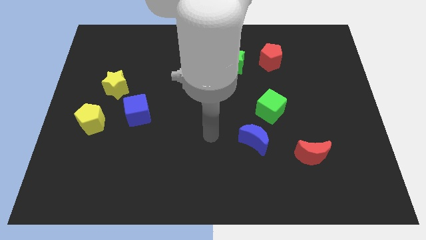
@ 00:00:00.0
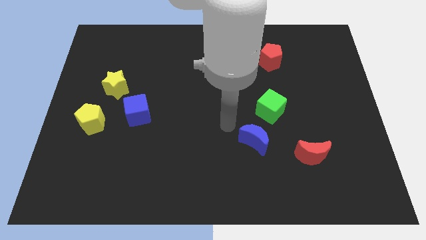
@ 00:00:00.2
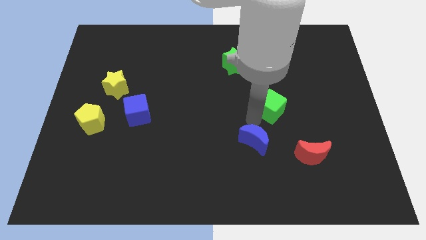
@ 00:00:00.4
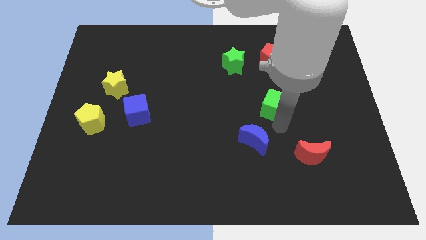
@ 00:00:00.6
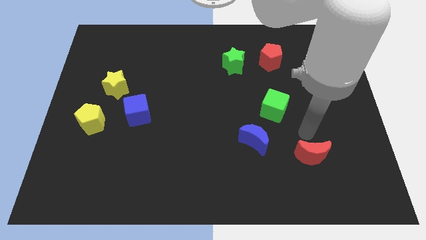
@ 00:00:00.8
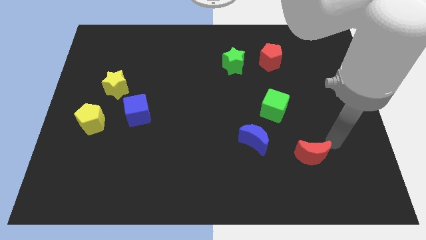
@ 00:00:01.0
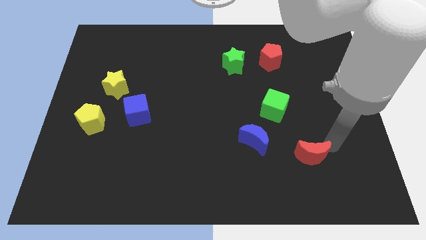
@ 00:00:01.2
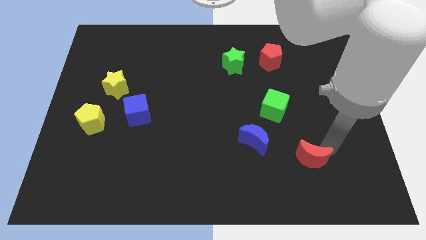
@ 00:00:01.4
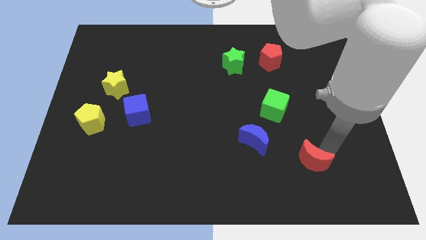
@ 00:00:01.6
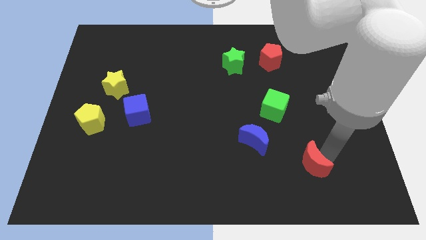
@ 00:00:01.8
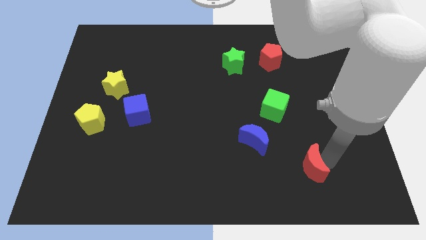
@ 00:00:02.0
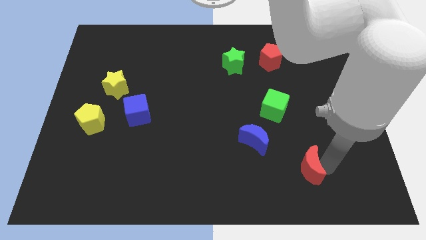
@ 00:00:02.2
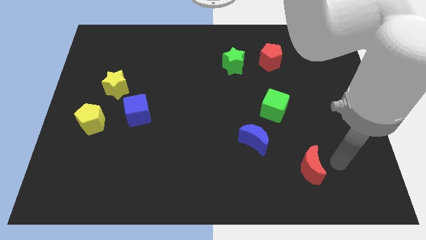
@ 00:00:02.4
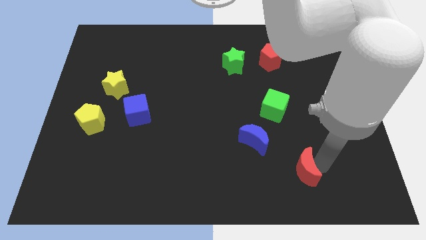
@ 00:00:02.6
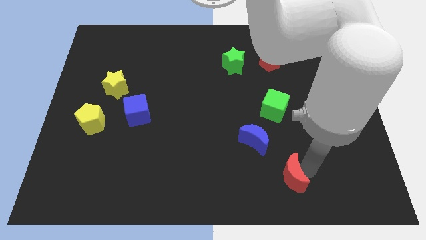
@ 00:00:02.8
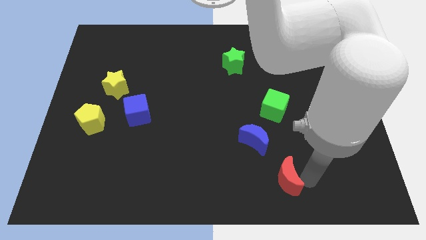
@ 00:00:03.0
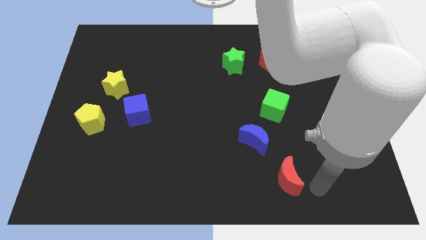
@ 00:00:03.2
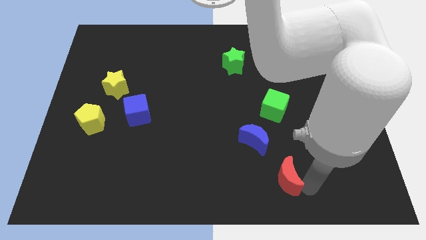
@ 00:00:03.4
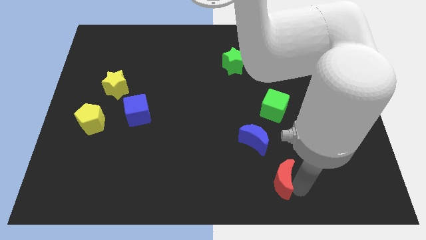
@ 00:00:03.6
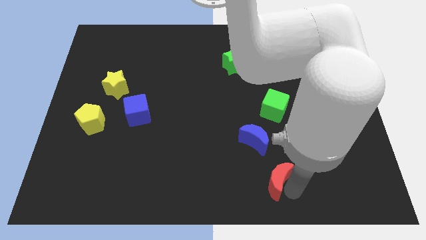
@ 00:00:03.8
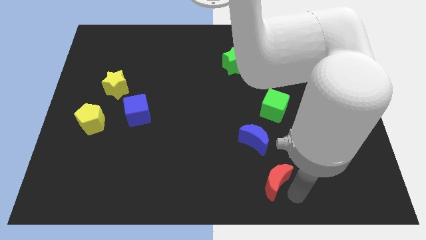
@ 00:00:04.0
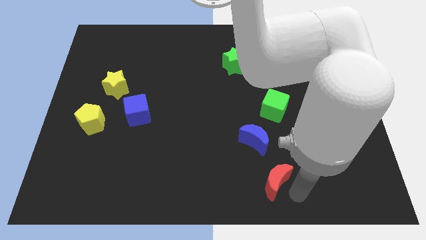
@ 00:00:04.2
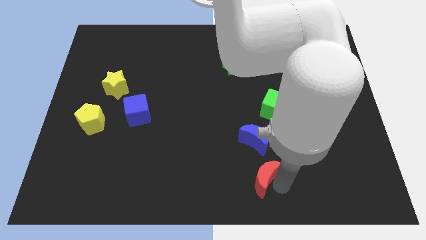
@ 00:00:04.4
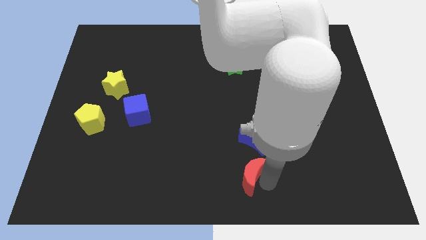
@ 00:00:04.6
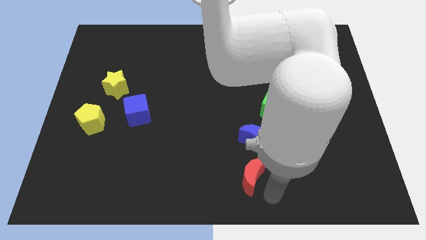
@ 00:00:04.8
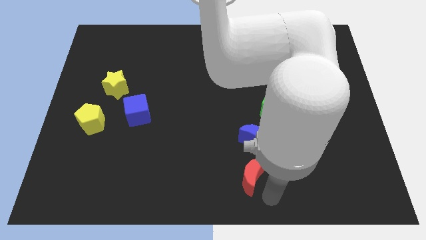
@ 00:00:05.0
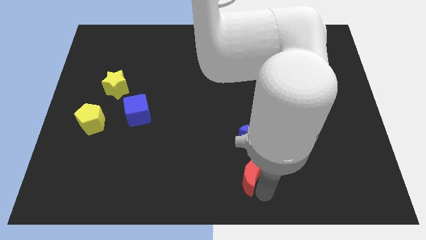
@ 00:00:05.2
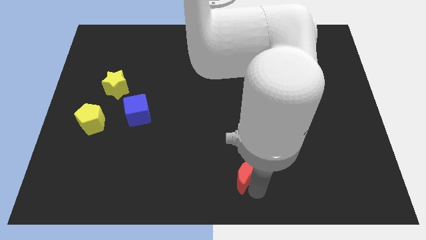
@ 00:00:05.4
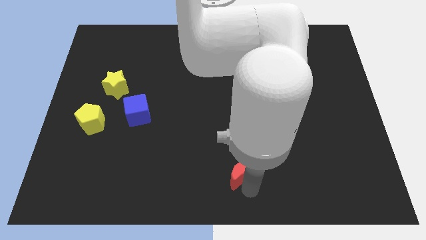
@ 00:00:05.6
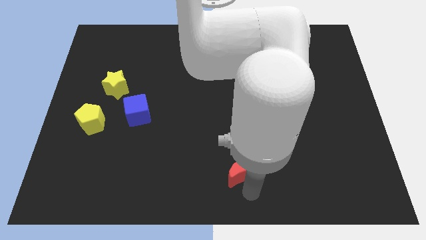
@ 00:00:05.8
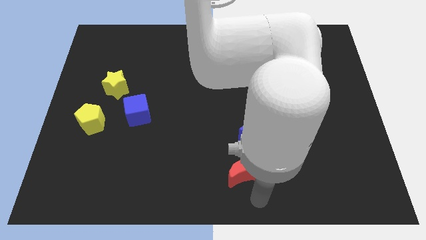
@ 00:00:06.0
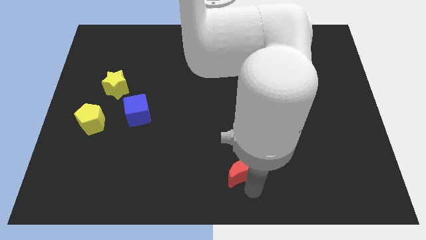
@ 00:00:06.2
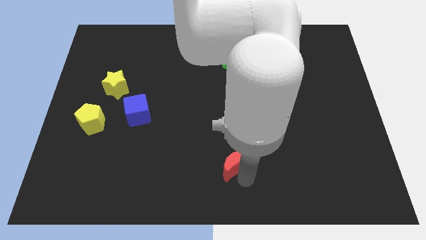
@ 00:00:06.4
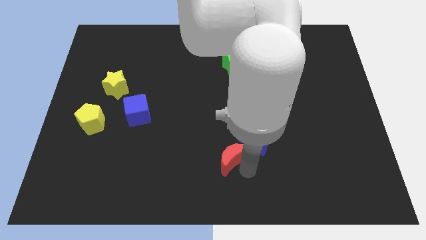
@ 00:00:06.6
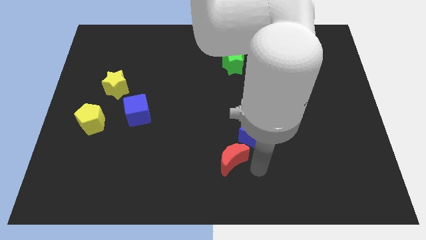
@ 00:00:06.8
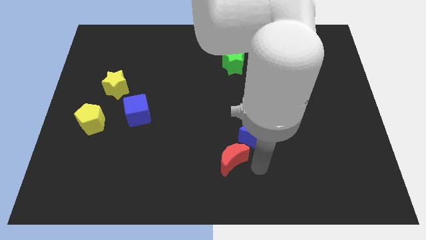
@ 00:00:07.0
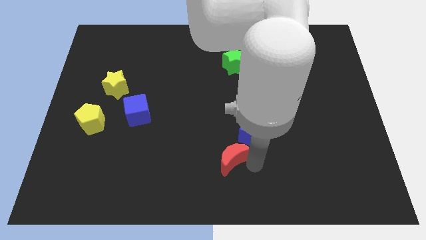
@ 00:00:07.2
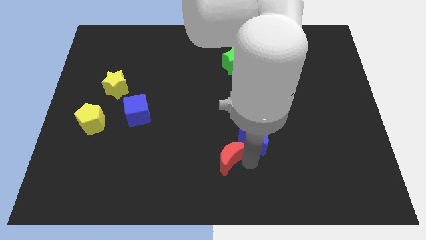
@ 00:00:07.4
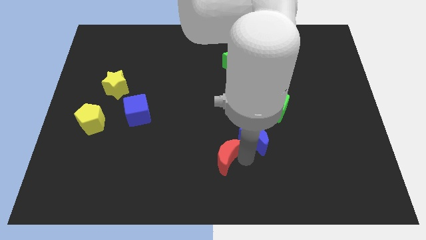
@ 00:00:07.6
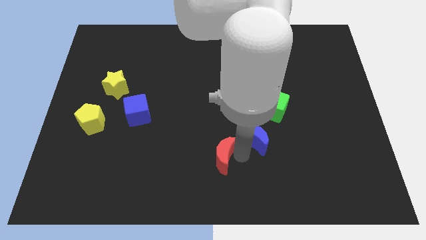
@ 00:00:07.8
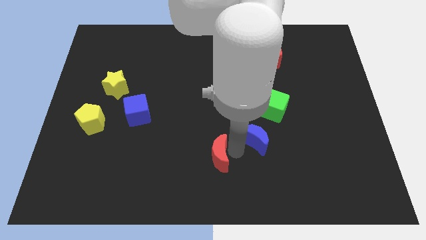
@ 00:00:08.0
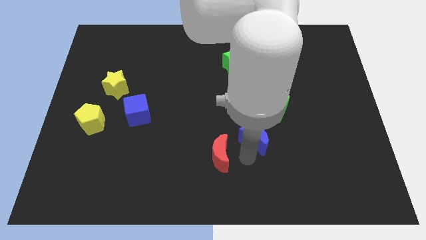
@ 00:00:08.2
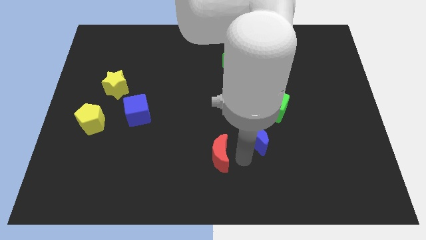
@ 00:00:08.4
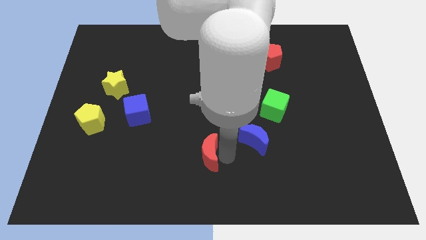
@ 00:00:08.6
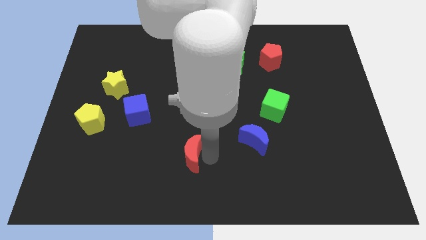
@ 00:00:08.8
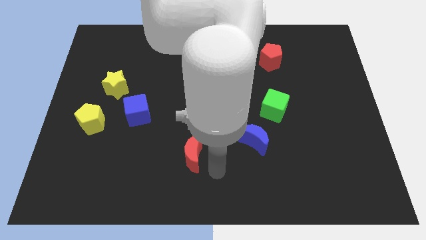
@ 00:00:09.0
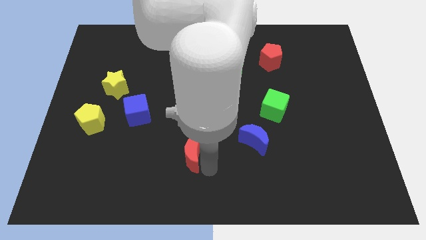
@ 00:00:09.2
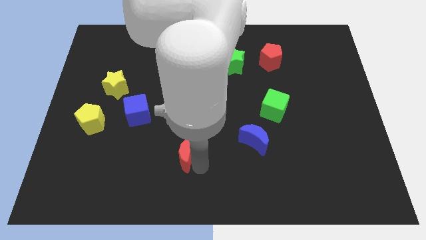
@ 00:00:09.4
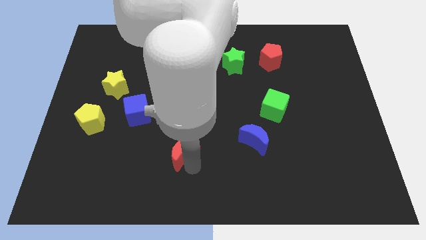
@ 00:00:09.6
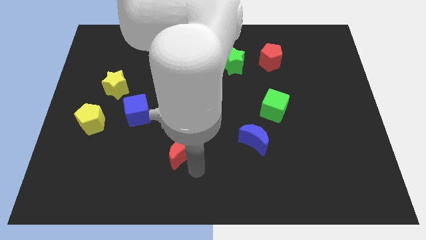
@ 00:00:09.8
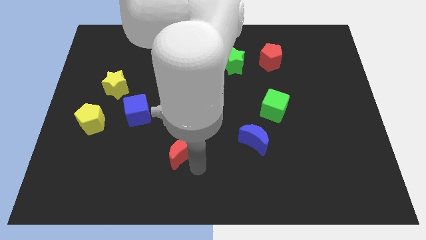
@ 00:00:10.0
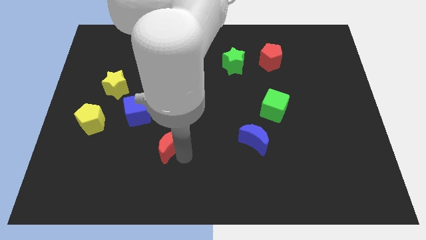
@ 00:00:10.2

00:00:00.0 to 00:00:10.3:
push the red moon to the bottom right of the blue cube
